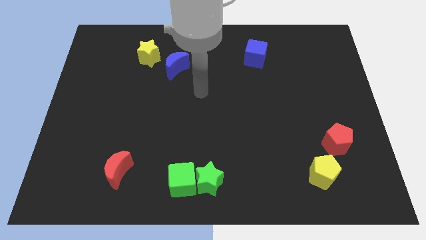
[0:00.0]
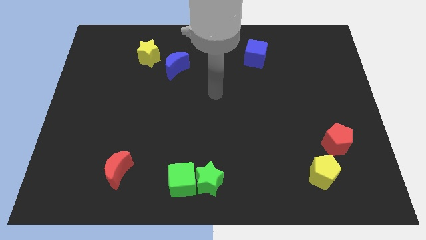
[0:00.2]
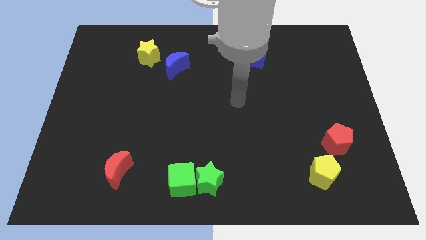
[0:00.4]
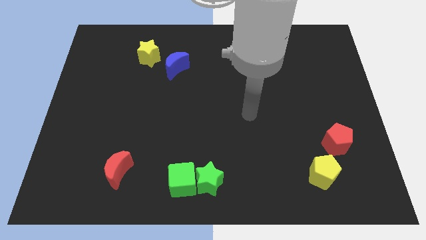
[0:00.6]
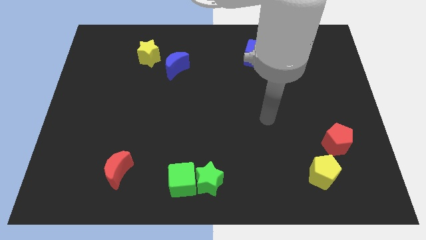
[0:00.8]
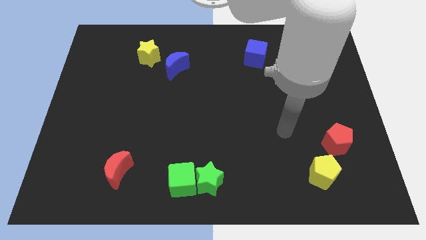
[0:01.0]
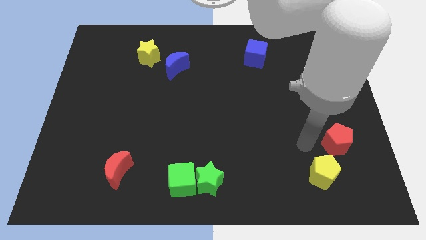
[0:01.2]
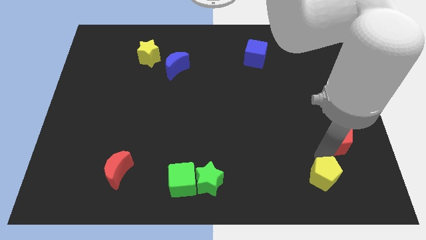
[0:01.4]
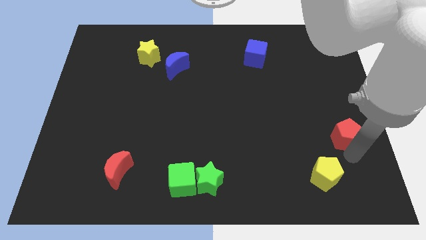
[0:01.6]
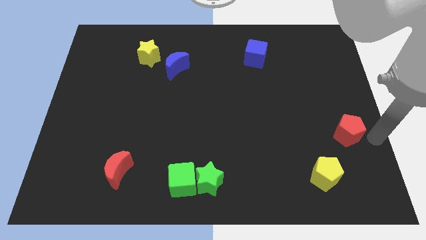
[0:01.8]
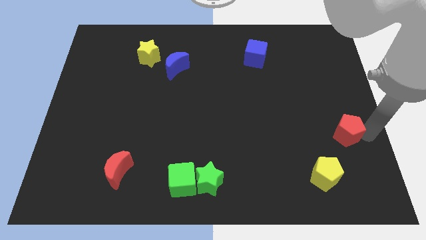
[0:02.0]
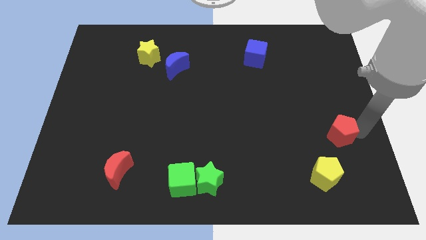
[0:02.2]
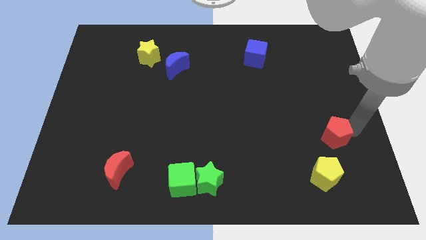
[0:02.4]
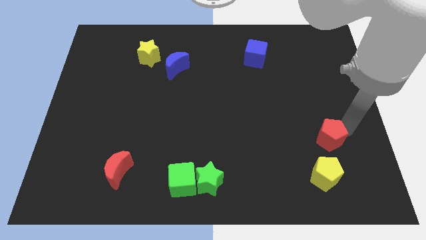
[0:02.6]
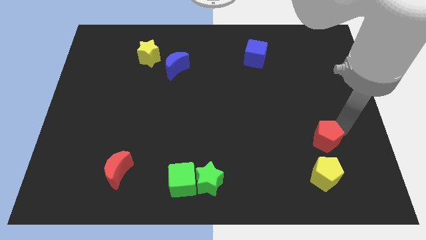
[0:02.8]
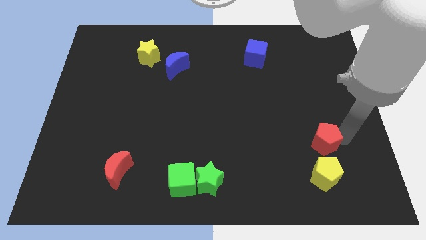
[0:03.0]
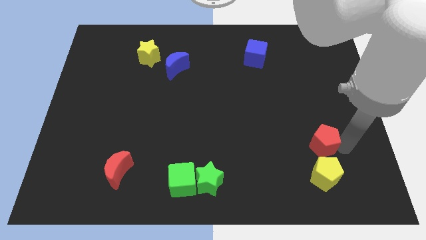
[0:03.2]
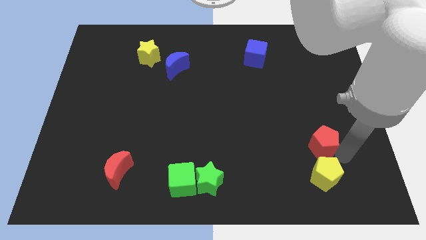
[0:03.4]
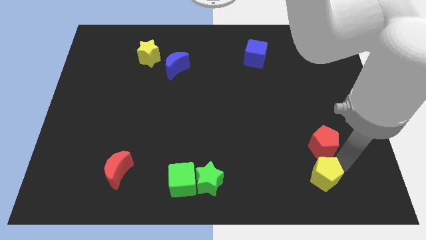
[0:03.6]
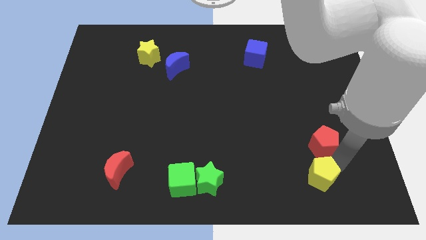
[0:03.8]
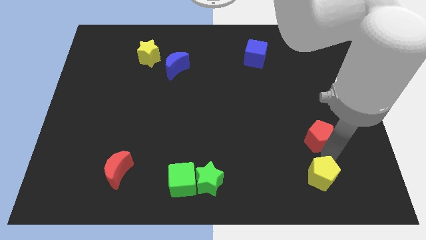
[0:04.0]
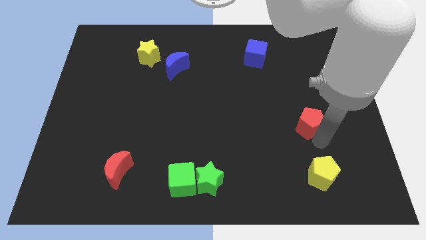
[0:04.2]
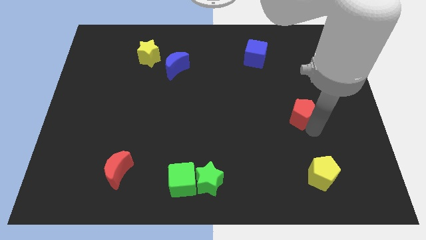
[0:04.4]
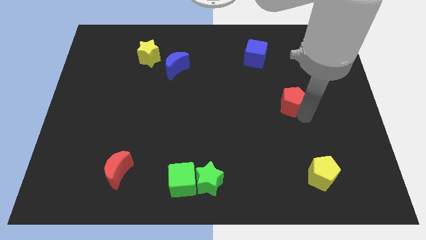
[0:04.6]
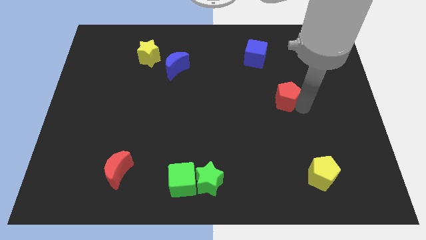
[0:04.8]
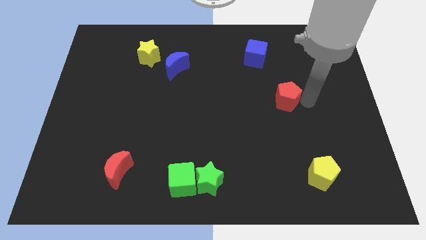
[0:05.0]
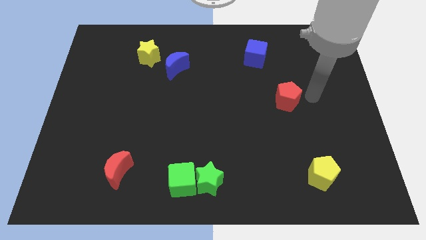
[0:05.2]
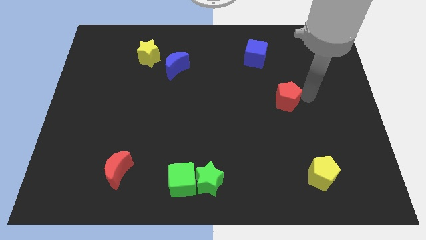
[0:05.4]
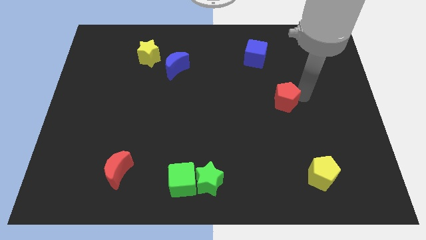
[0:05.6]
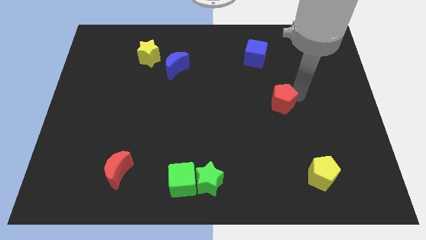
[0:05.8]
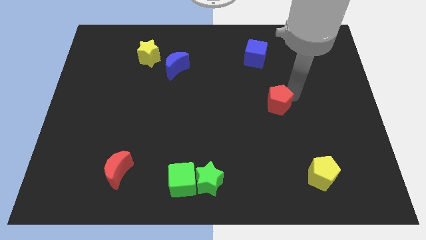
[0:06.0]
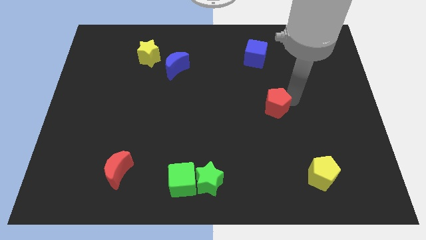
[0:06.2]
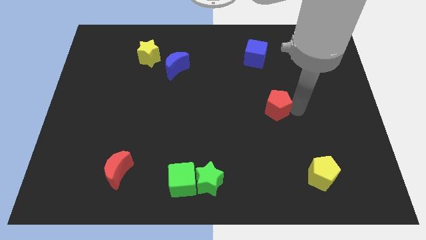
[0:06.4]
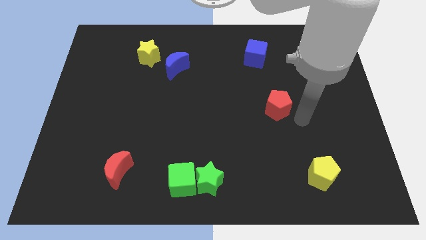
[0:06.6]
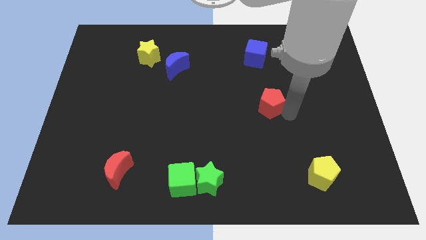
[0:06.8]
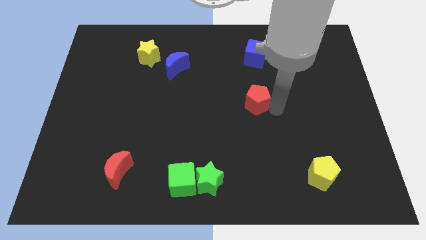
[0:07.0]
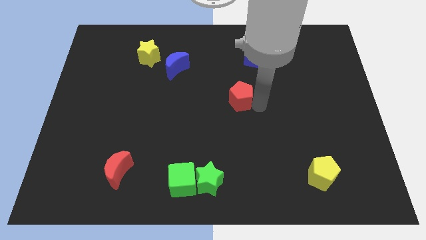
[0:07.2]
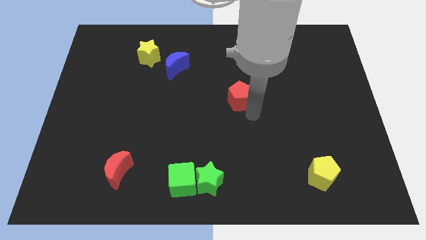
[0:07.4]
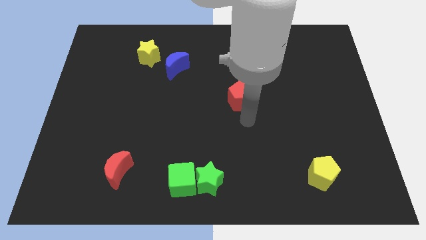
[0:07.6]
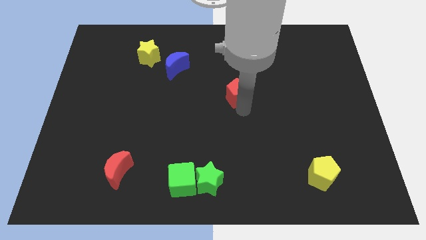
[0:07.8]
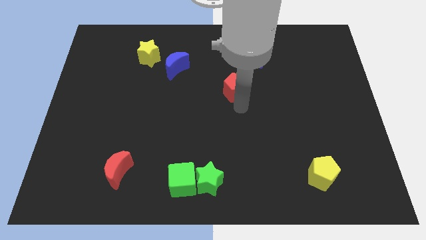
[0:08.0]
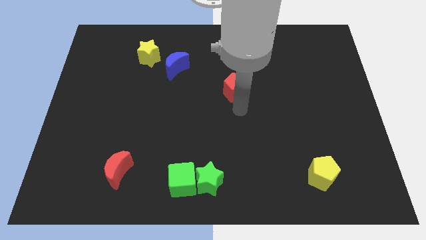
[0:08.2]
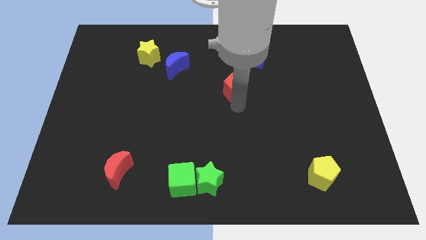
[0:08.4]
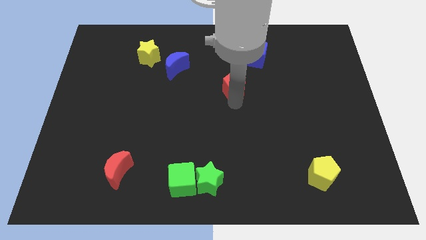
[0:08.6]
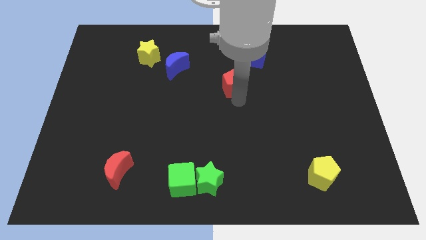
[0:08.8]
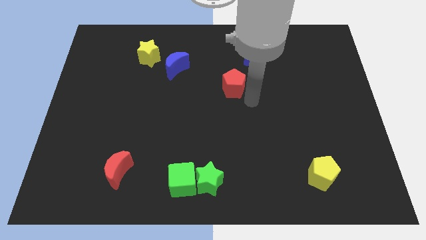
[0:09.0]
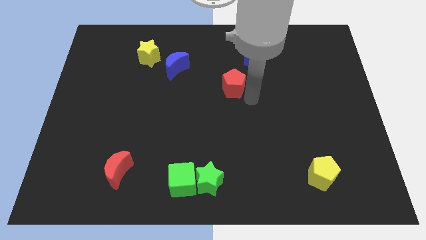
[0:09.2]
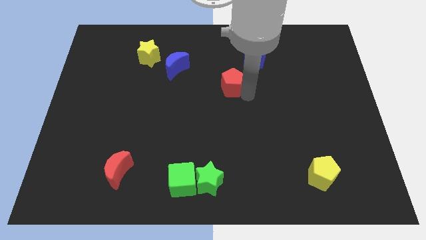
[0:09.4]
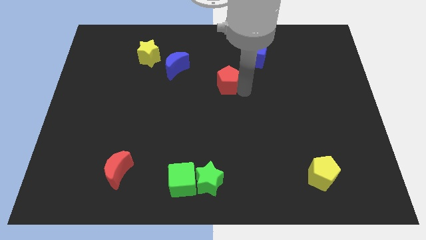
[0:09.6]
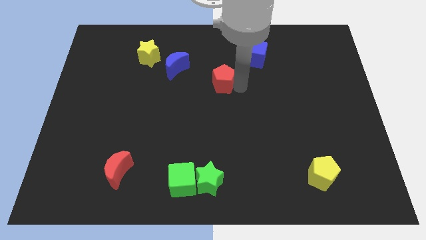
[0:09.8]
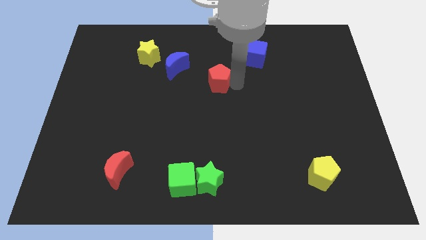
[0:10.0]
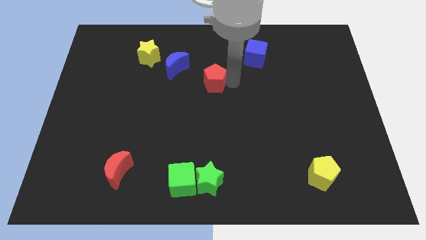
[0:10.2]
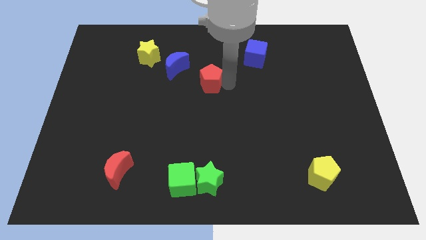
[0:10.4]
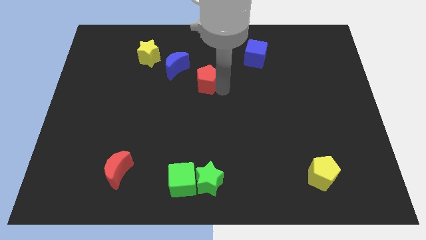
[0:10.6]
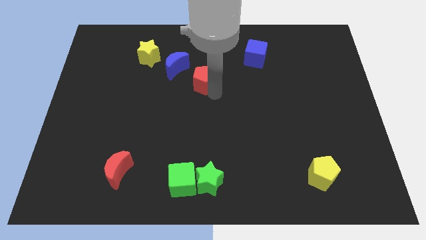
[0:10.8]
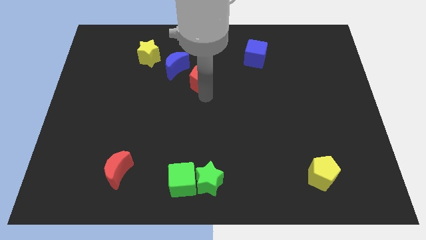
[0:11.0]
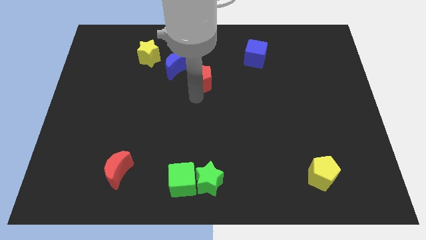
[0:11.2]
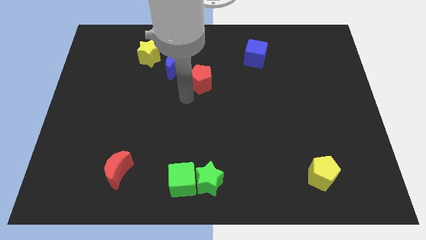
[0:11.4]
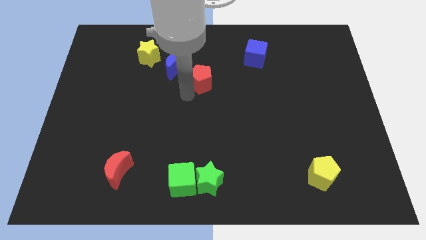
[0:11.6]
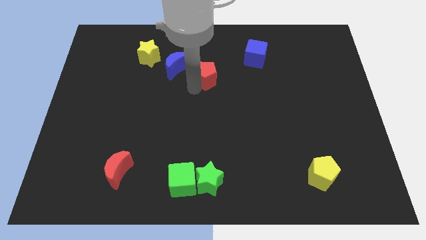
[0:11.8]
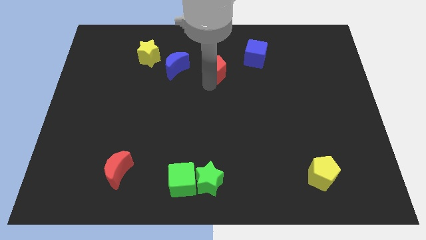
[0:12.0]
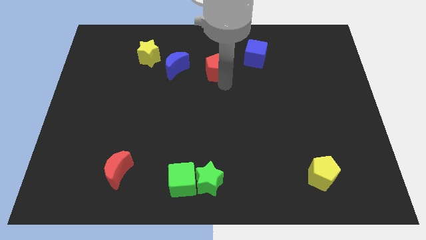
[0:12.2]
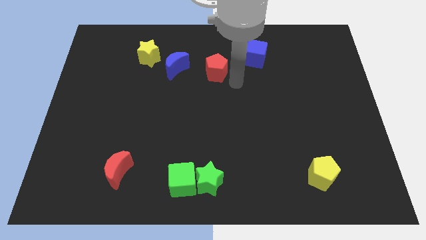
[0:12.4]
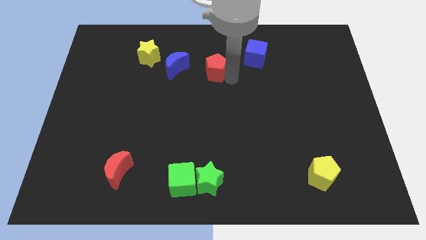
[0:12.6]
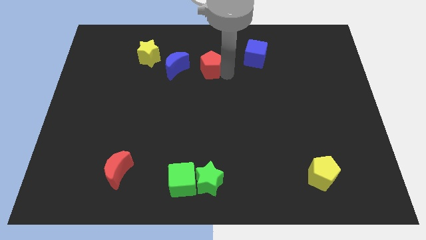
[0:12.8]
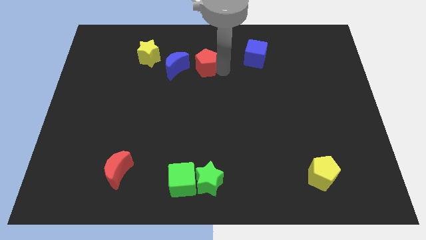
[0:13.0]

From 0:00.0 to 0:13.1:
move the red pentagon to the right of the yellow star

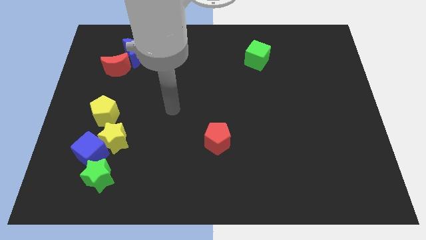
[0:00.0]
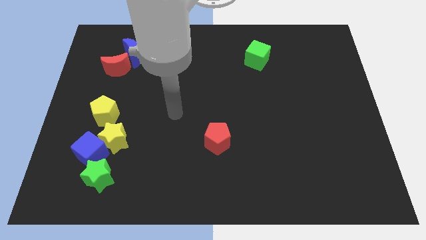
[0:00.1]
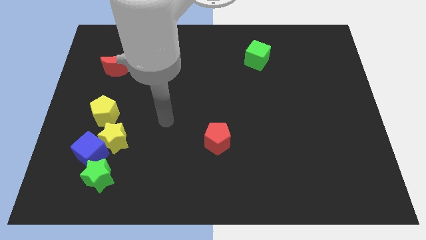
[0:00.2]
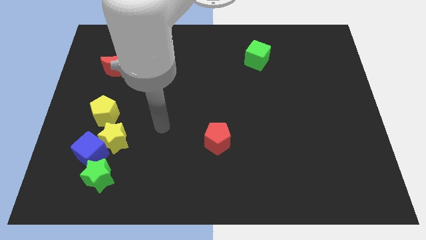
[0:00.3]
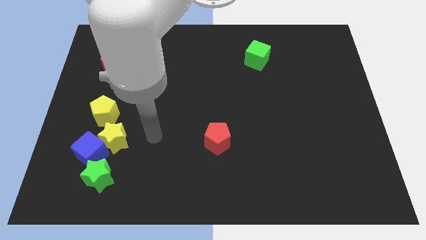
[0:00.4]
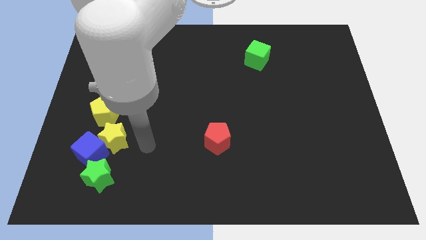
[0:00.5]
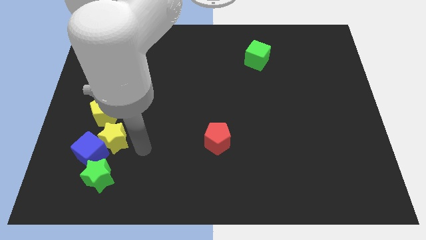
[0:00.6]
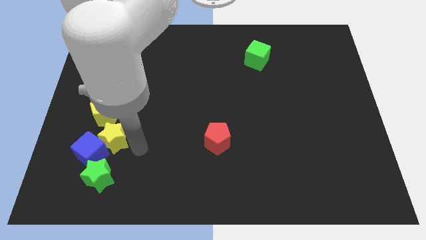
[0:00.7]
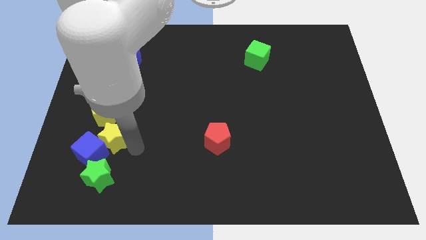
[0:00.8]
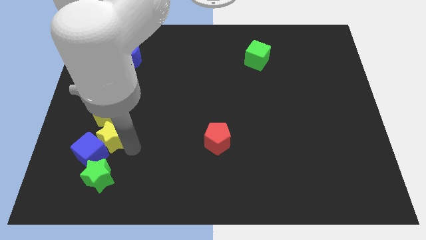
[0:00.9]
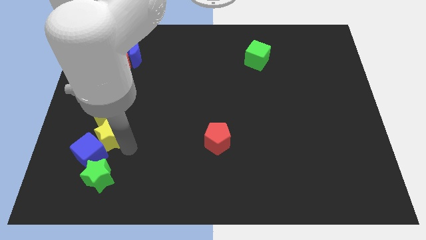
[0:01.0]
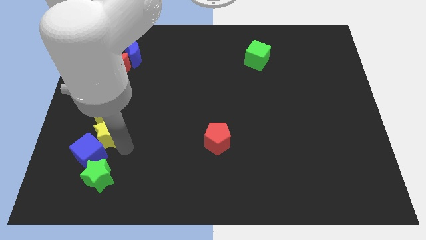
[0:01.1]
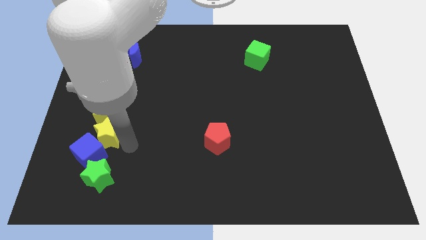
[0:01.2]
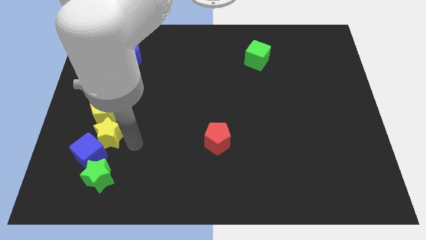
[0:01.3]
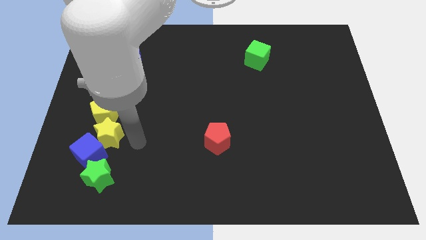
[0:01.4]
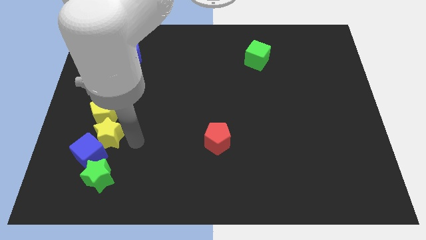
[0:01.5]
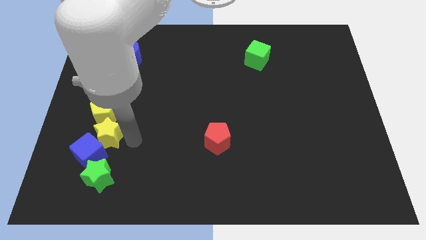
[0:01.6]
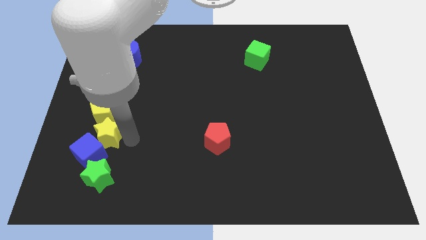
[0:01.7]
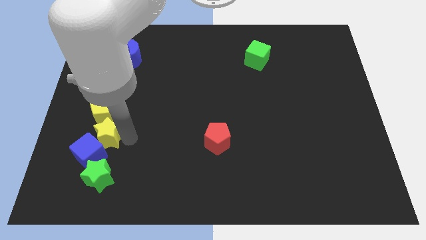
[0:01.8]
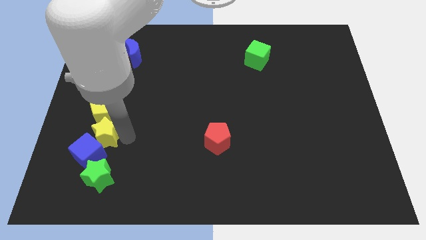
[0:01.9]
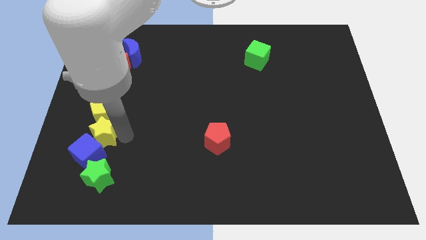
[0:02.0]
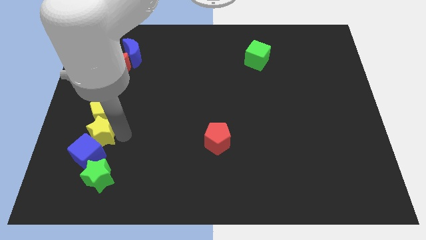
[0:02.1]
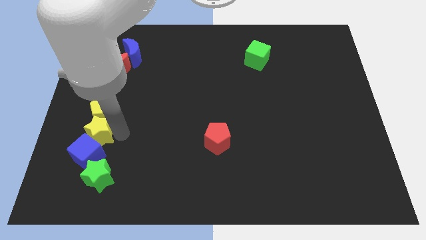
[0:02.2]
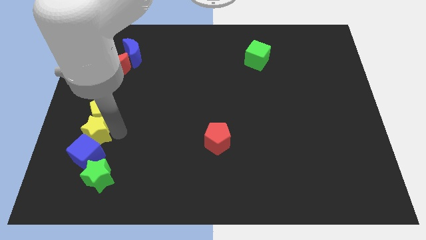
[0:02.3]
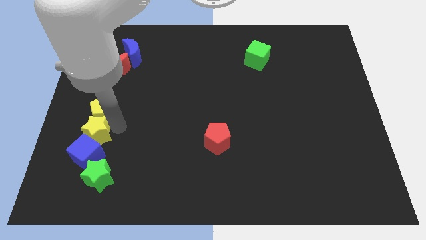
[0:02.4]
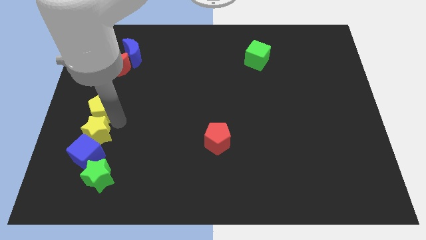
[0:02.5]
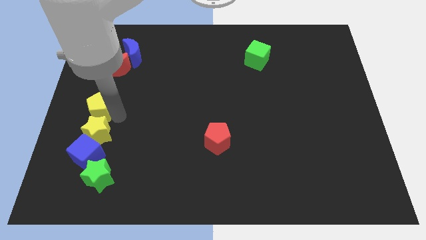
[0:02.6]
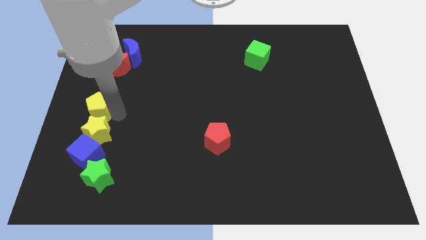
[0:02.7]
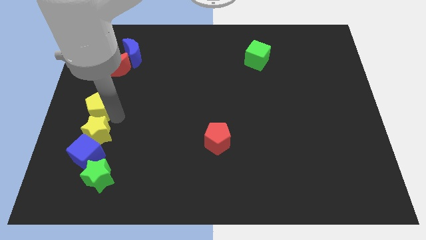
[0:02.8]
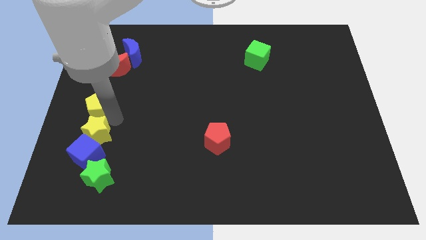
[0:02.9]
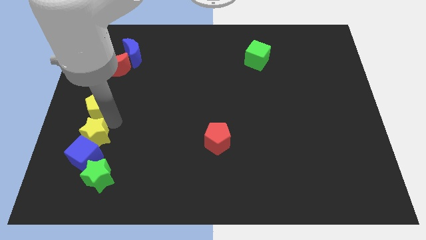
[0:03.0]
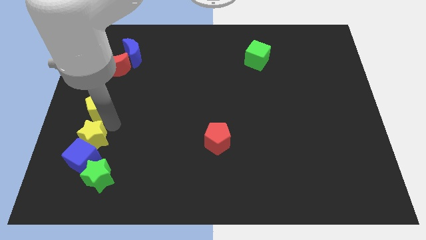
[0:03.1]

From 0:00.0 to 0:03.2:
move the yellow star to the top left of the green star
